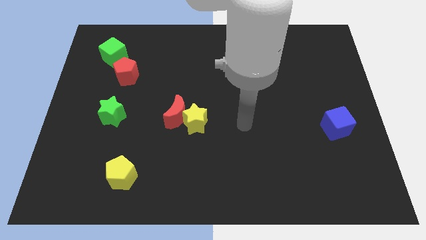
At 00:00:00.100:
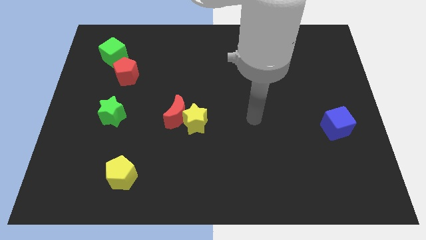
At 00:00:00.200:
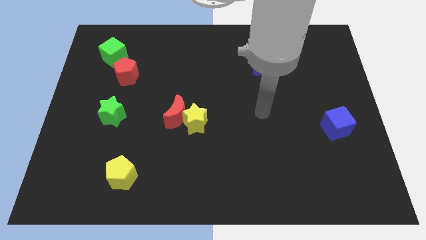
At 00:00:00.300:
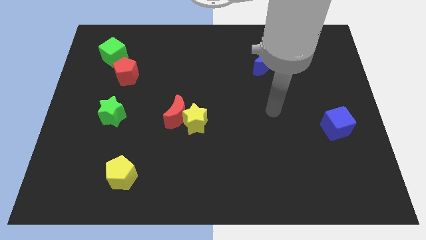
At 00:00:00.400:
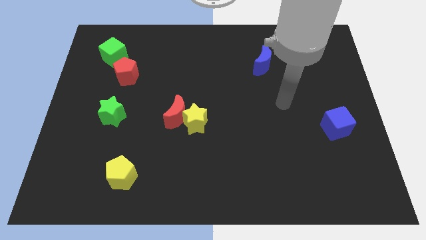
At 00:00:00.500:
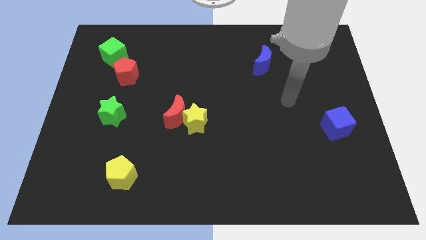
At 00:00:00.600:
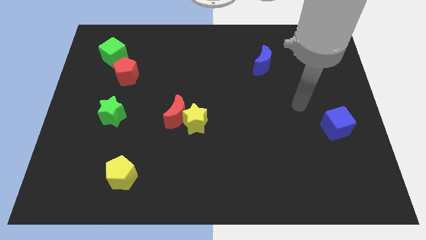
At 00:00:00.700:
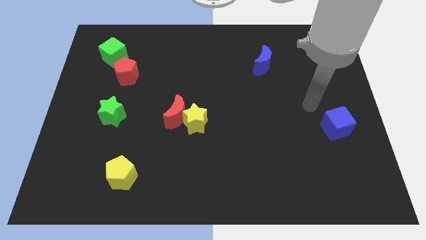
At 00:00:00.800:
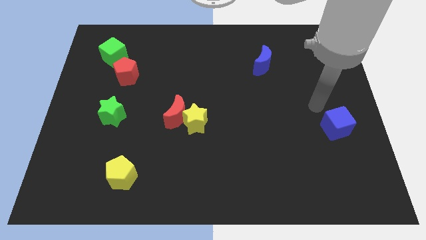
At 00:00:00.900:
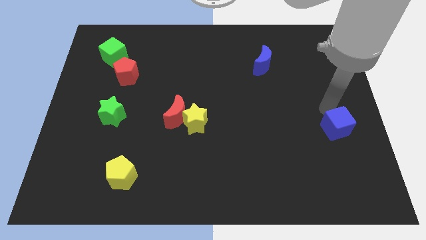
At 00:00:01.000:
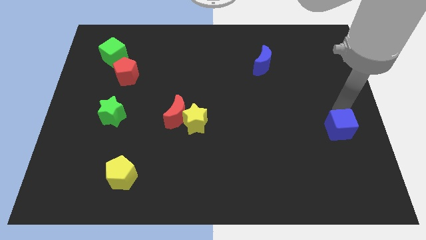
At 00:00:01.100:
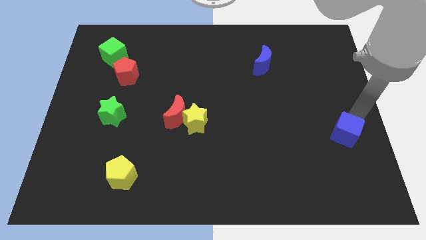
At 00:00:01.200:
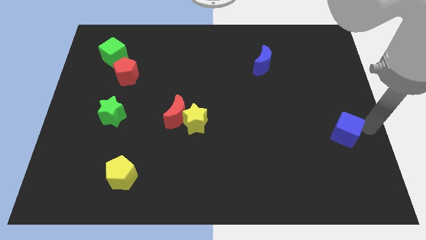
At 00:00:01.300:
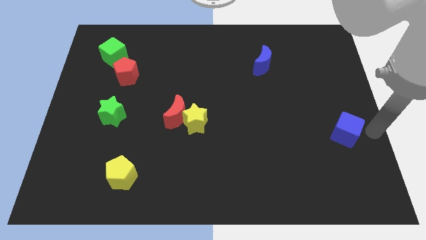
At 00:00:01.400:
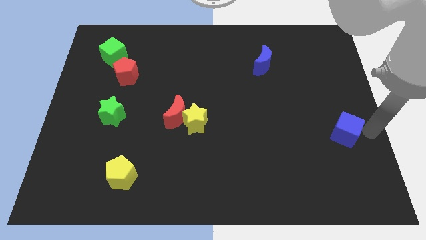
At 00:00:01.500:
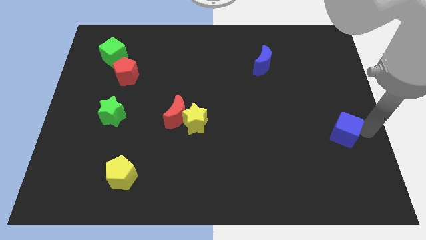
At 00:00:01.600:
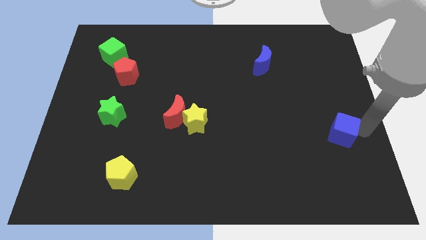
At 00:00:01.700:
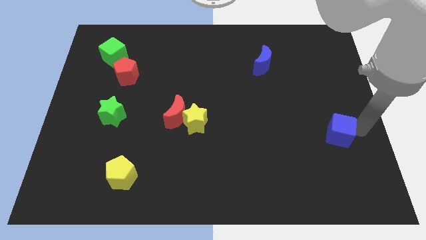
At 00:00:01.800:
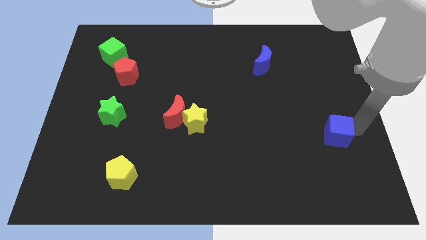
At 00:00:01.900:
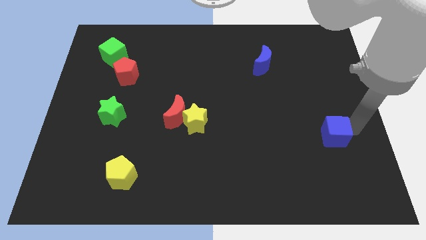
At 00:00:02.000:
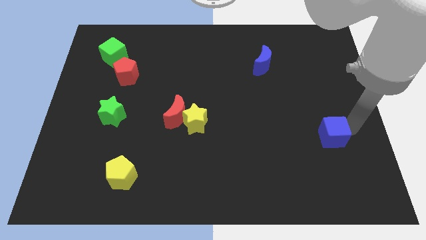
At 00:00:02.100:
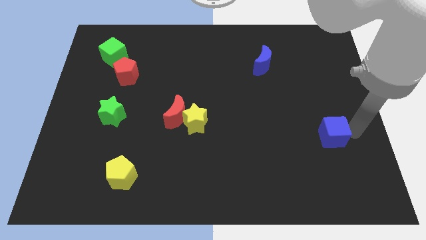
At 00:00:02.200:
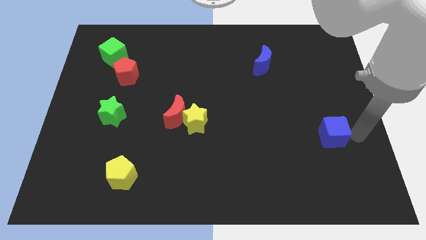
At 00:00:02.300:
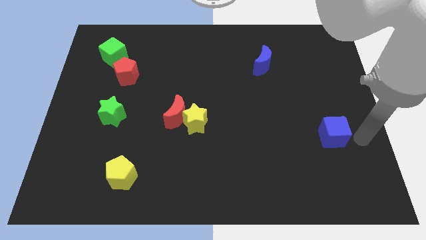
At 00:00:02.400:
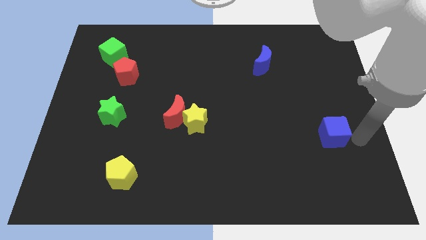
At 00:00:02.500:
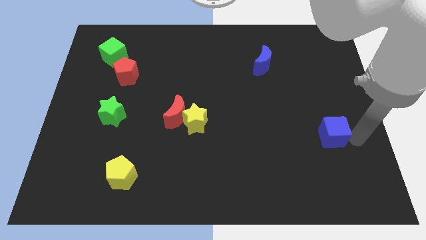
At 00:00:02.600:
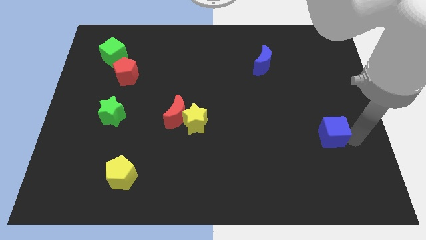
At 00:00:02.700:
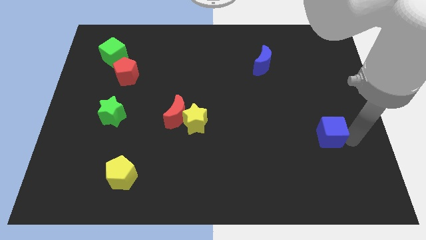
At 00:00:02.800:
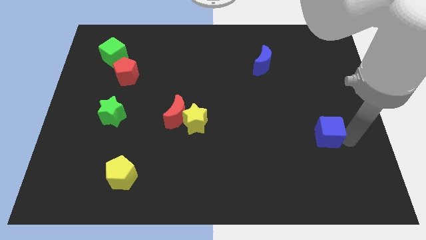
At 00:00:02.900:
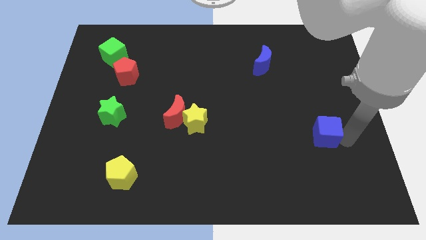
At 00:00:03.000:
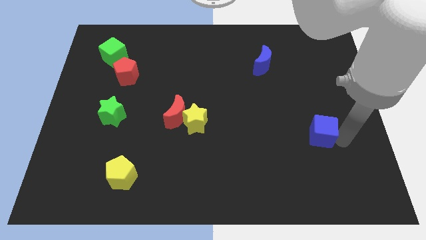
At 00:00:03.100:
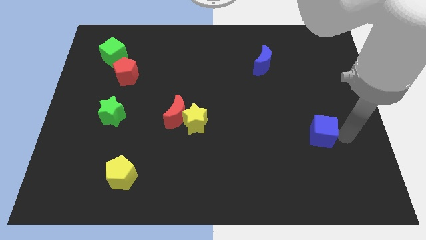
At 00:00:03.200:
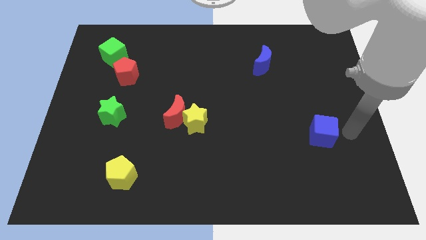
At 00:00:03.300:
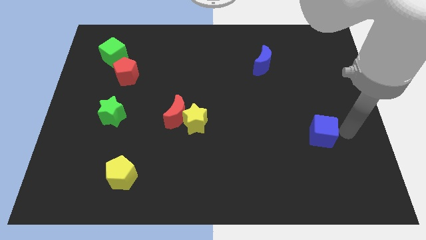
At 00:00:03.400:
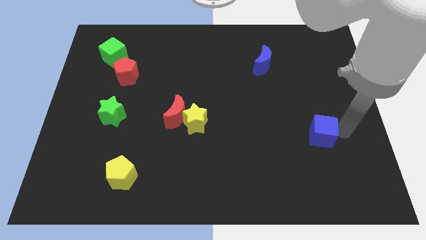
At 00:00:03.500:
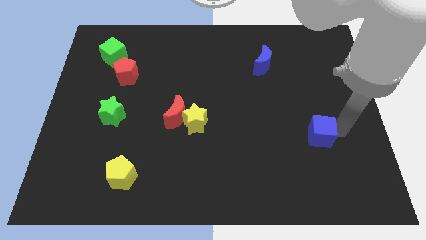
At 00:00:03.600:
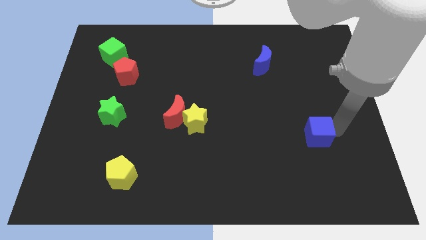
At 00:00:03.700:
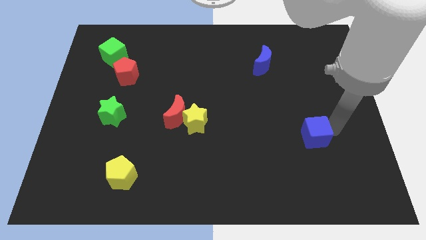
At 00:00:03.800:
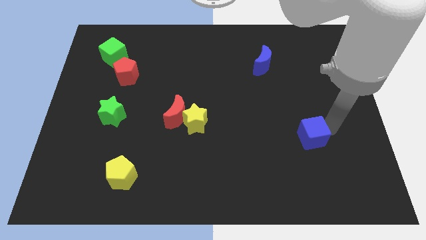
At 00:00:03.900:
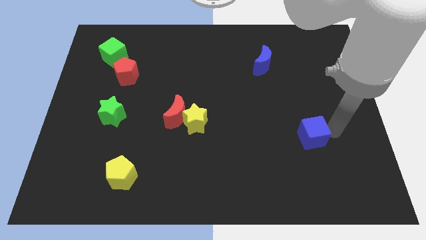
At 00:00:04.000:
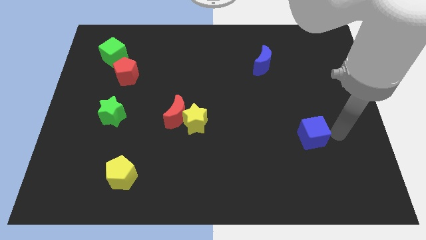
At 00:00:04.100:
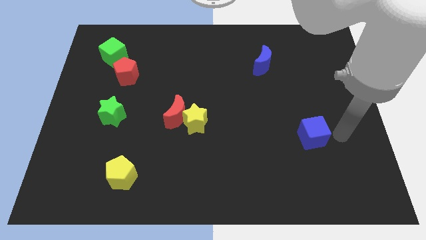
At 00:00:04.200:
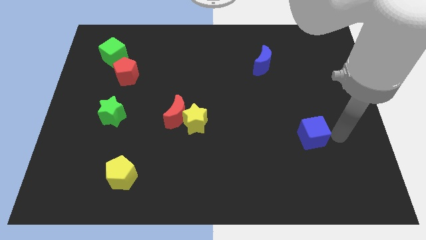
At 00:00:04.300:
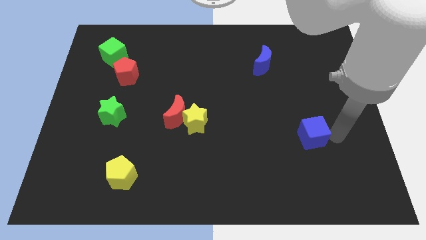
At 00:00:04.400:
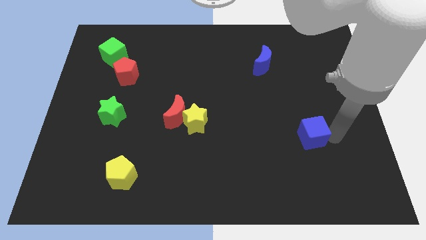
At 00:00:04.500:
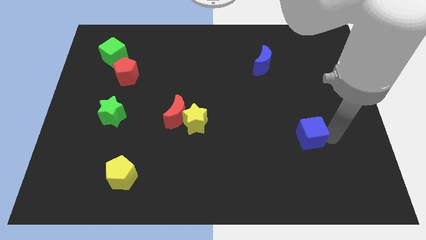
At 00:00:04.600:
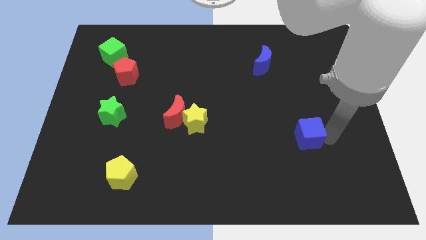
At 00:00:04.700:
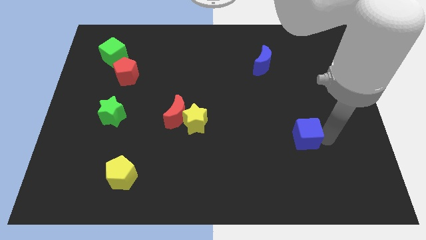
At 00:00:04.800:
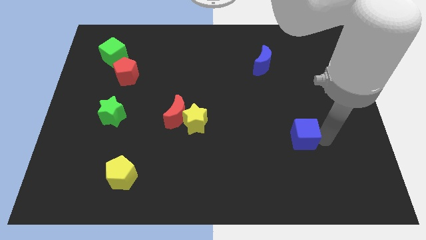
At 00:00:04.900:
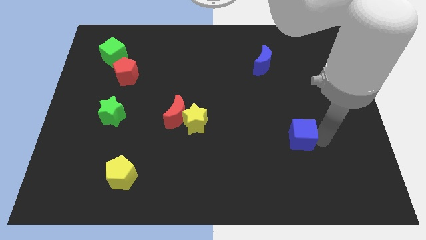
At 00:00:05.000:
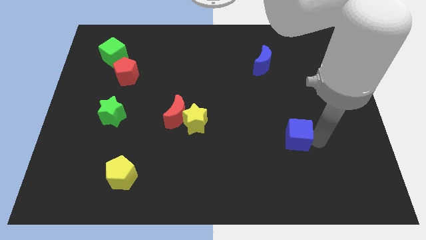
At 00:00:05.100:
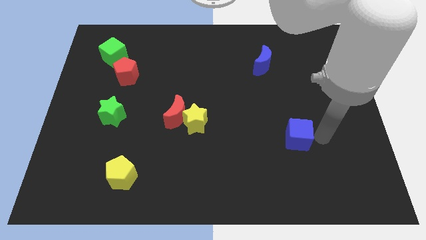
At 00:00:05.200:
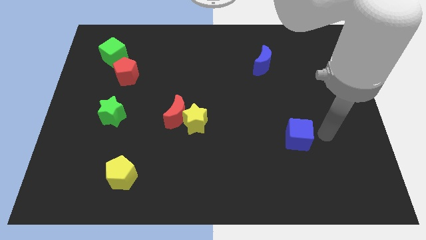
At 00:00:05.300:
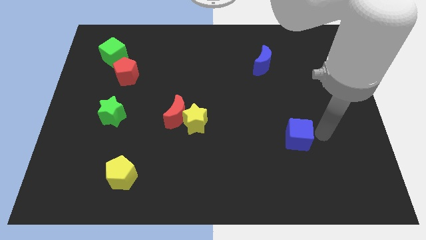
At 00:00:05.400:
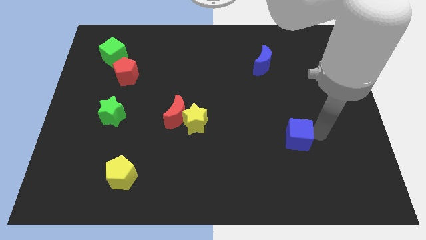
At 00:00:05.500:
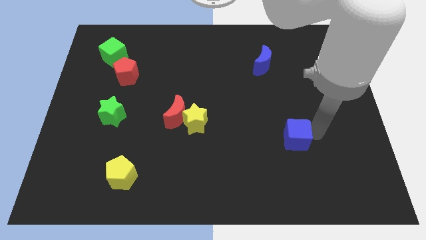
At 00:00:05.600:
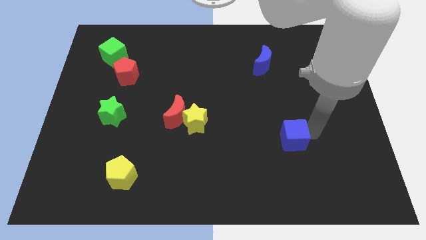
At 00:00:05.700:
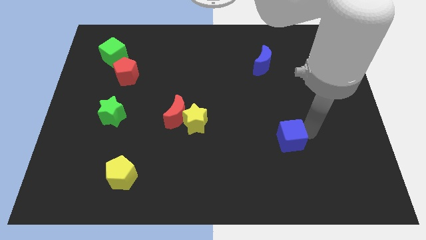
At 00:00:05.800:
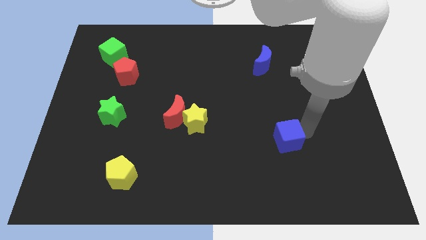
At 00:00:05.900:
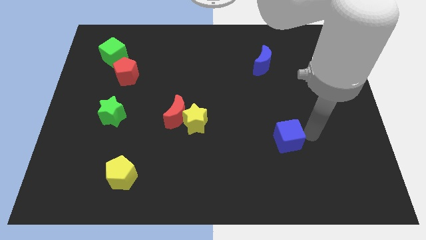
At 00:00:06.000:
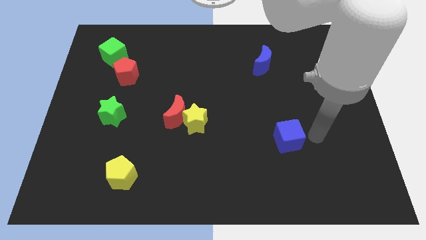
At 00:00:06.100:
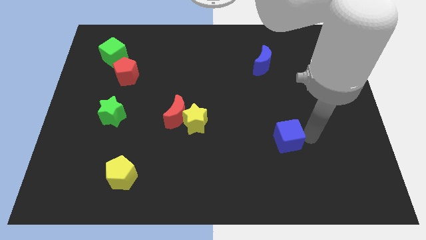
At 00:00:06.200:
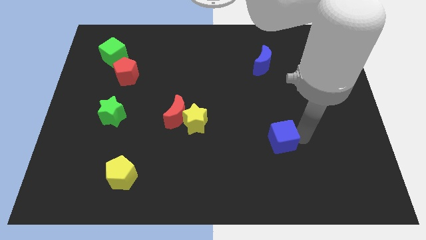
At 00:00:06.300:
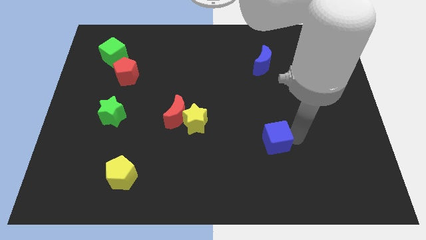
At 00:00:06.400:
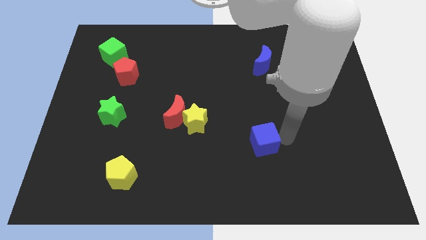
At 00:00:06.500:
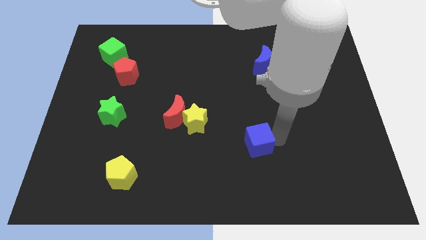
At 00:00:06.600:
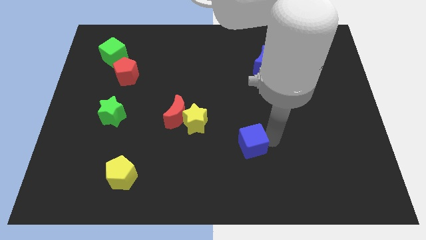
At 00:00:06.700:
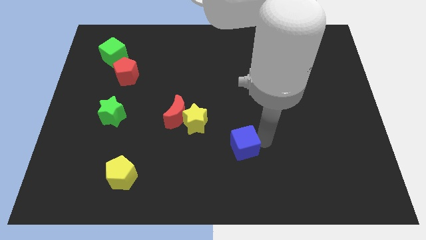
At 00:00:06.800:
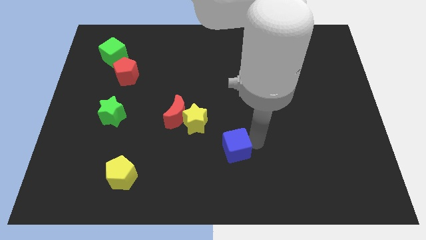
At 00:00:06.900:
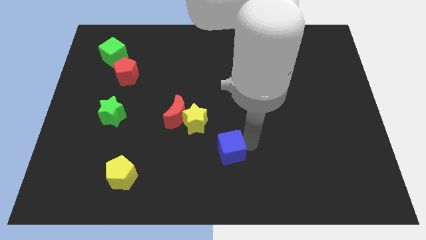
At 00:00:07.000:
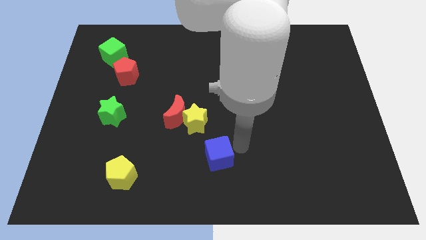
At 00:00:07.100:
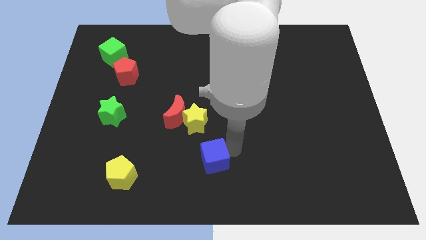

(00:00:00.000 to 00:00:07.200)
push the blue cube below the yellow star
